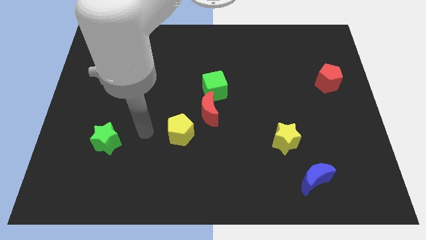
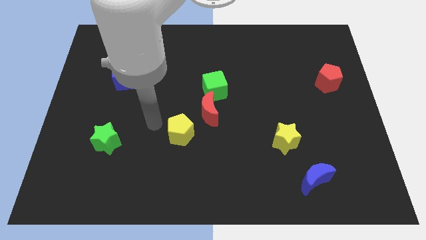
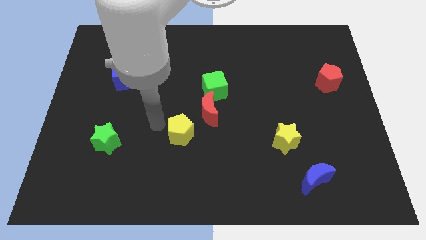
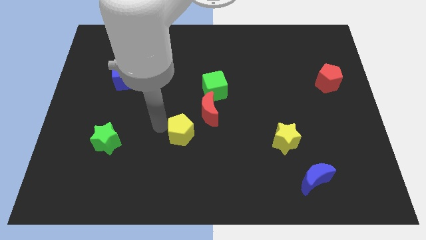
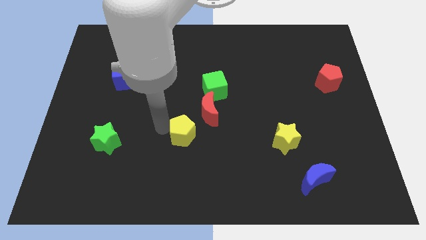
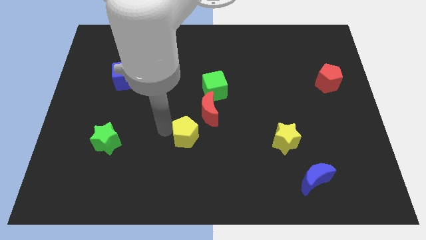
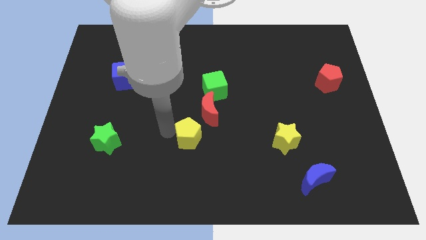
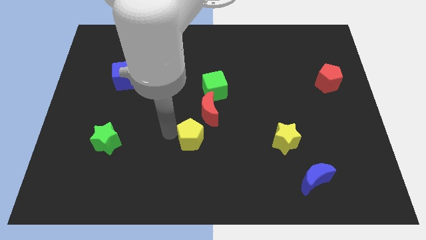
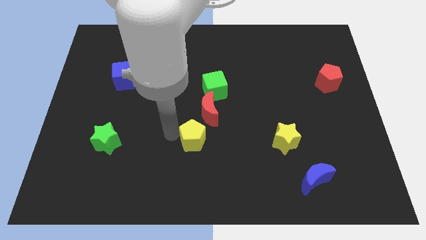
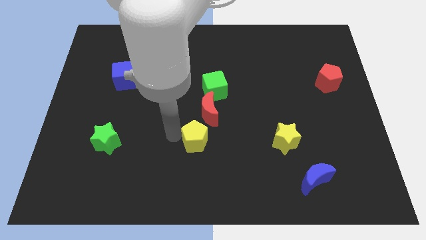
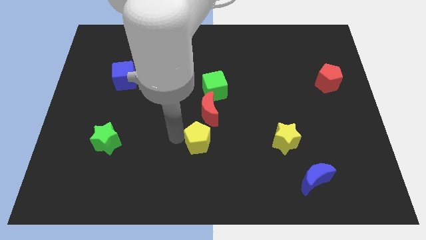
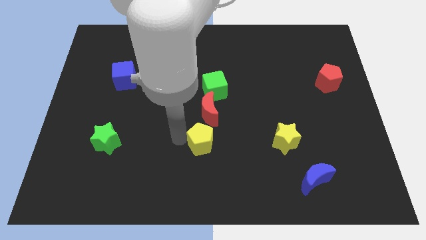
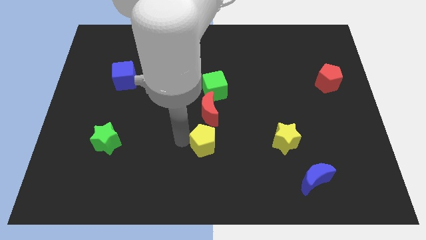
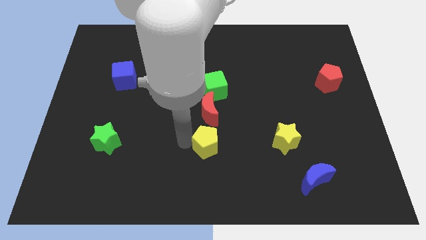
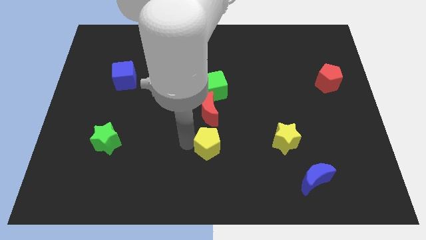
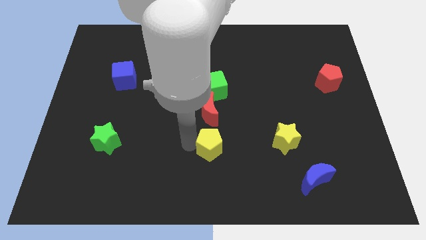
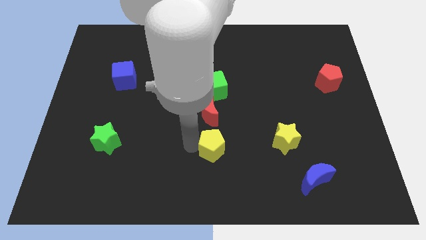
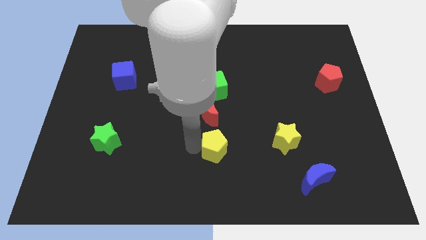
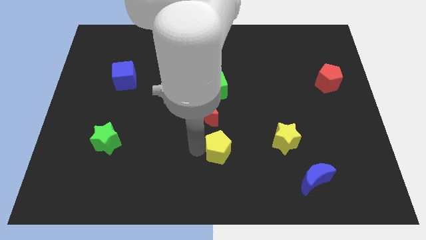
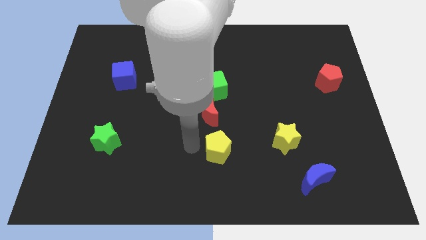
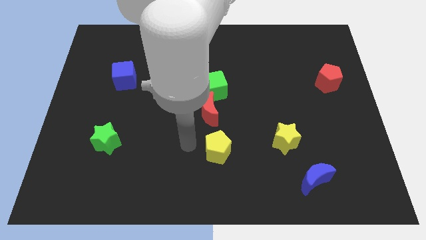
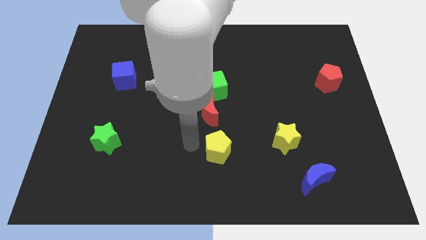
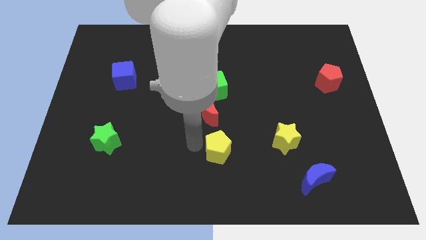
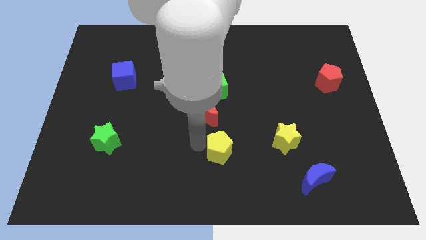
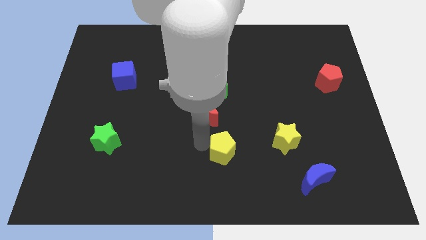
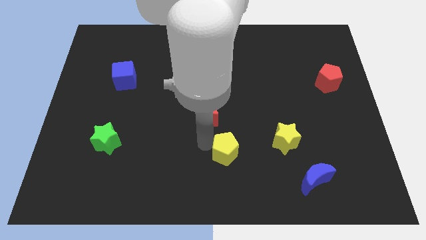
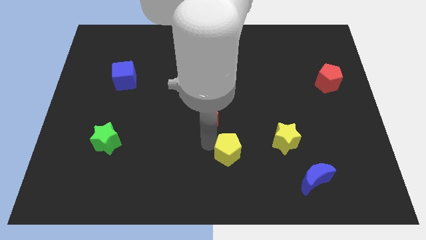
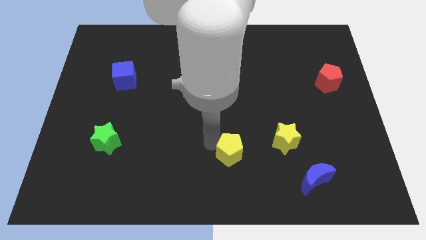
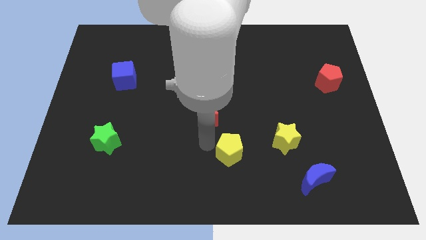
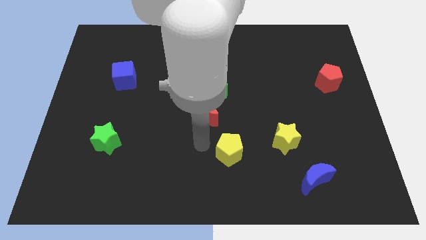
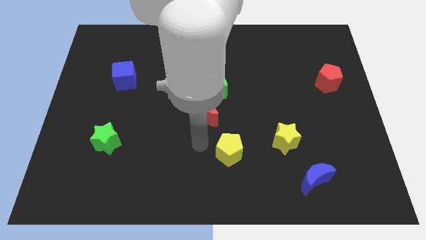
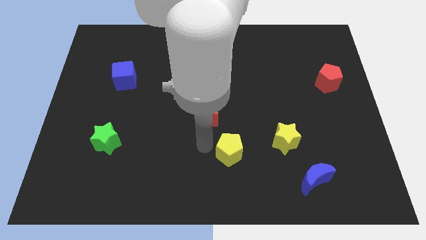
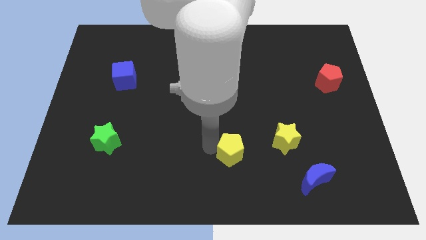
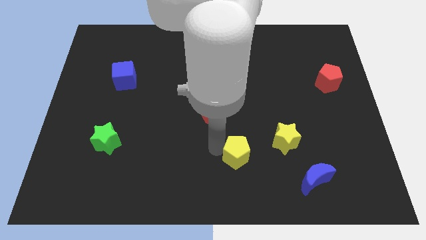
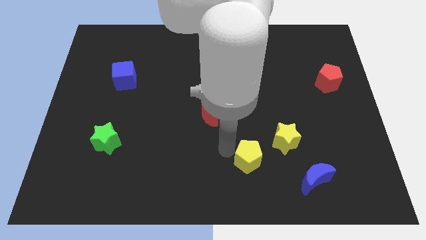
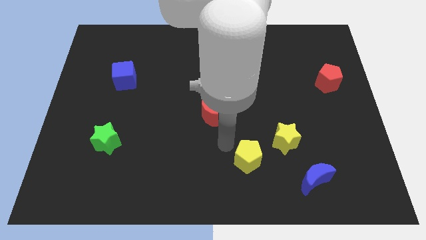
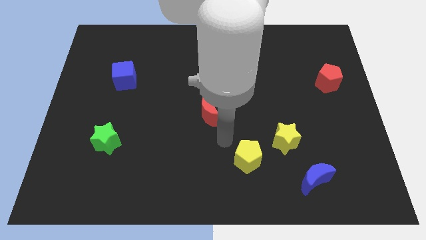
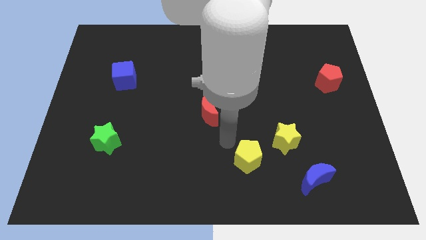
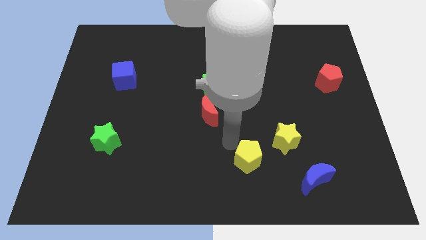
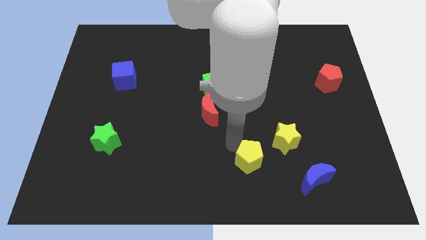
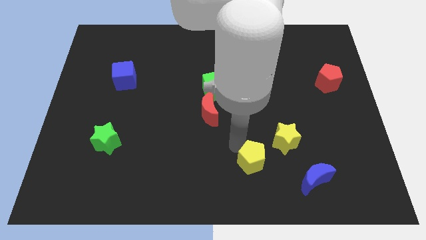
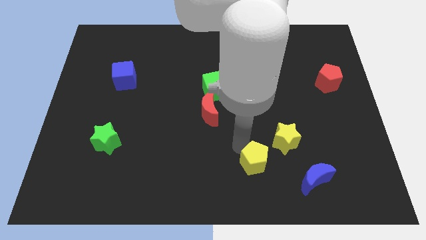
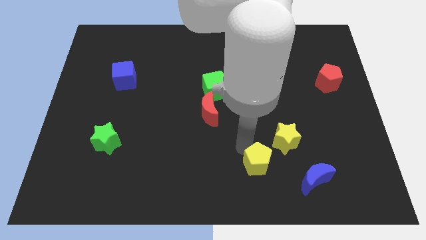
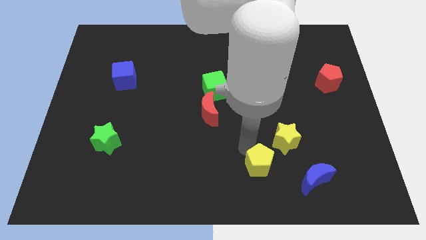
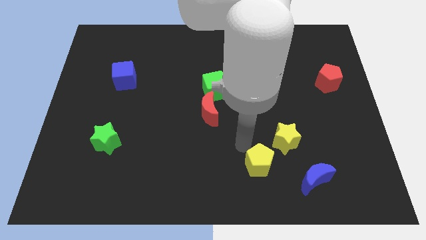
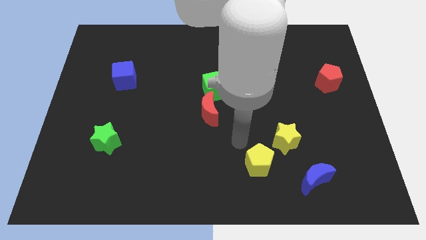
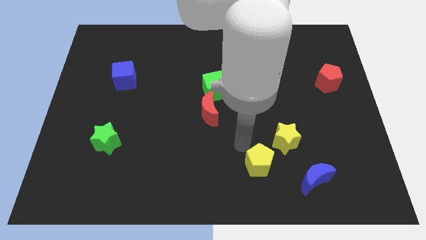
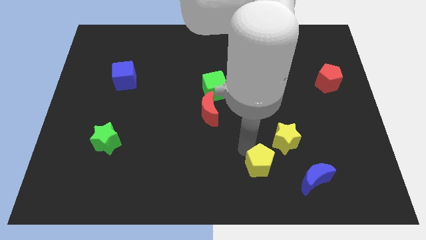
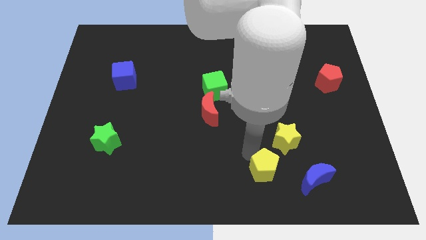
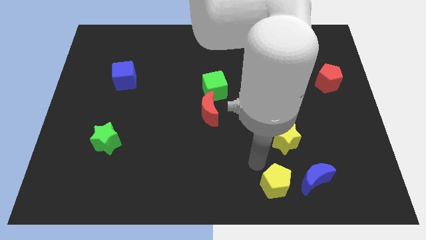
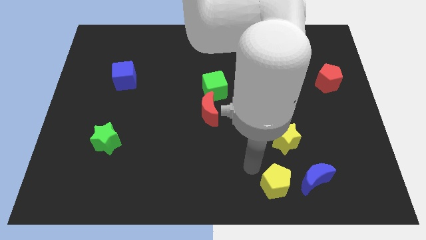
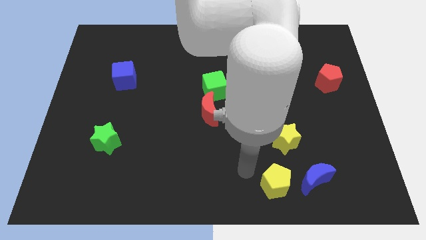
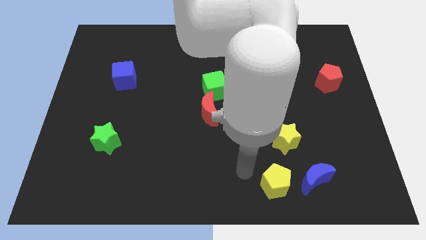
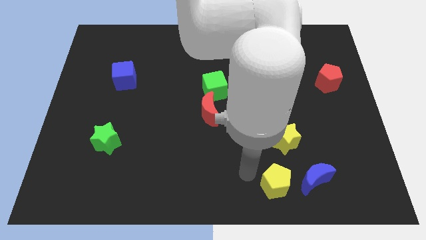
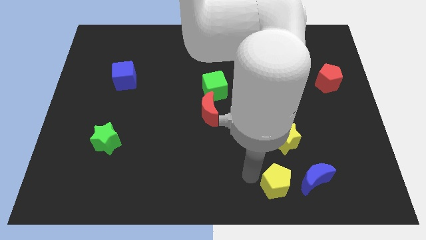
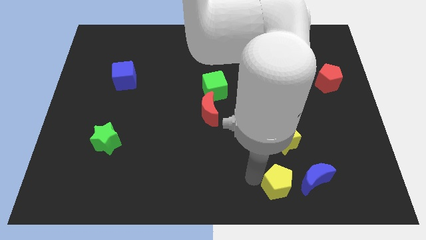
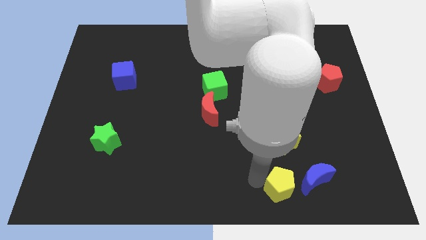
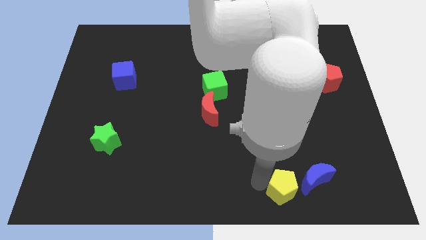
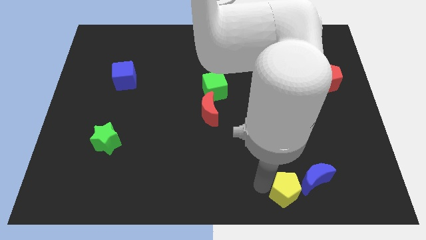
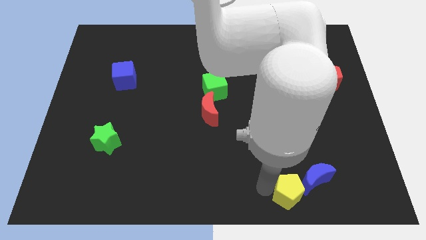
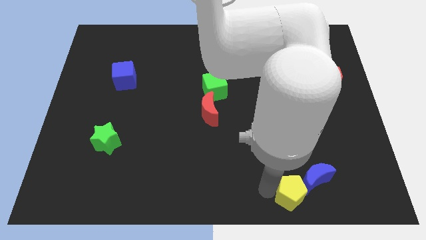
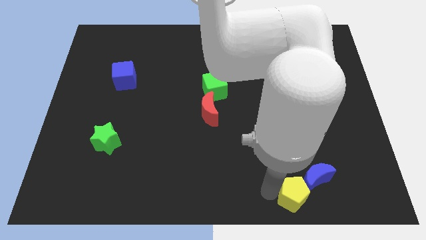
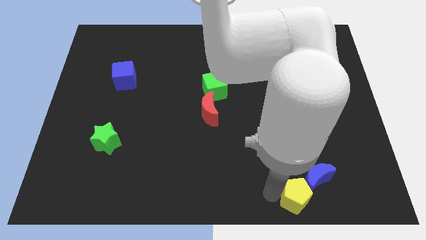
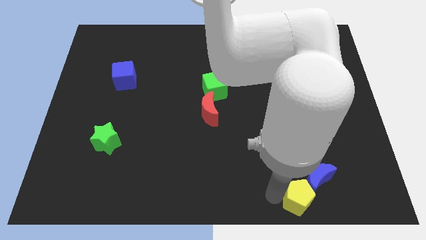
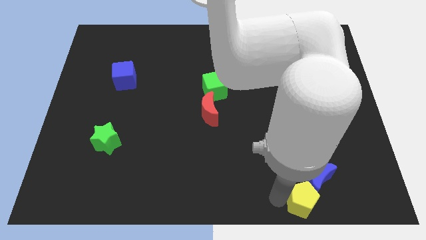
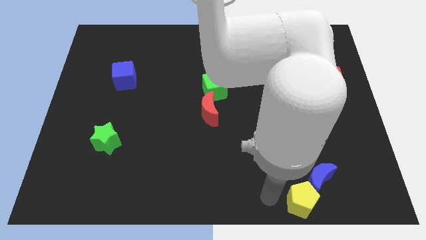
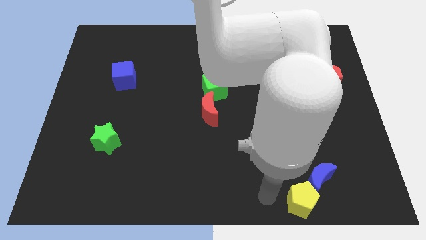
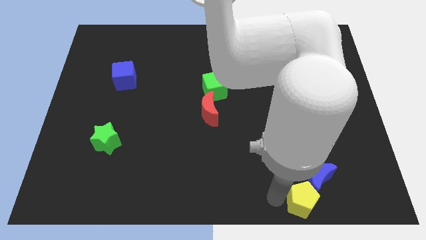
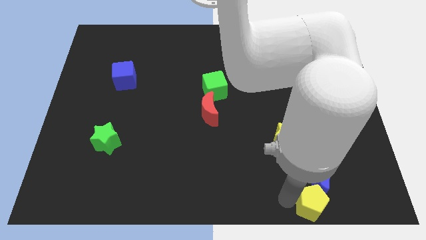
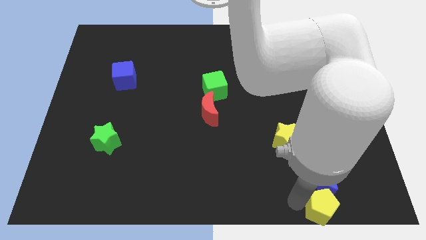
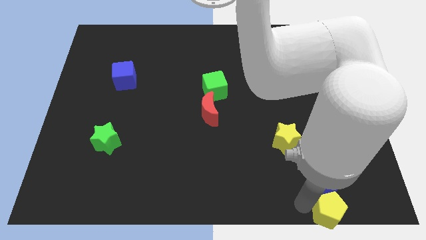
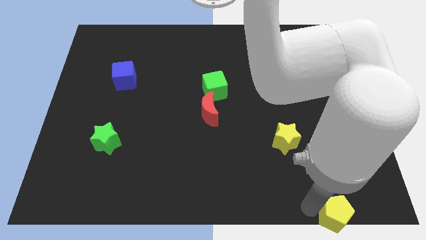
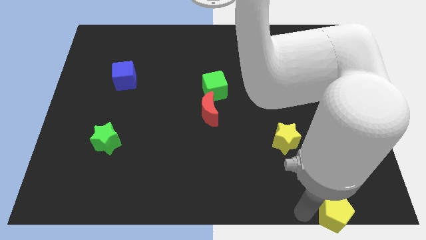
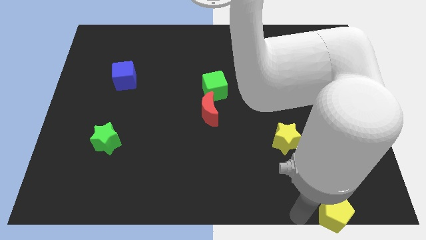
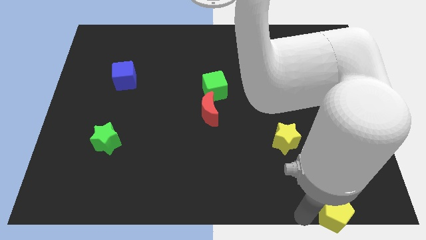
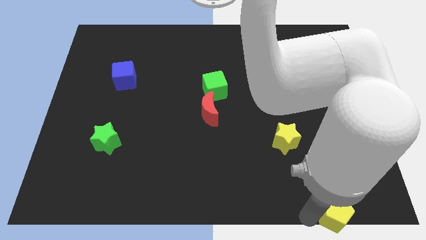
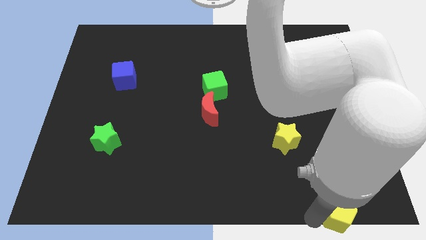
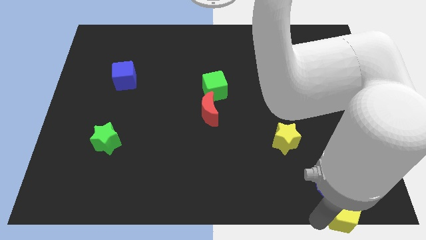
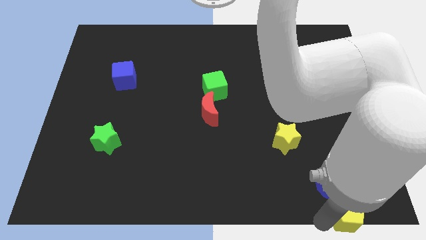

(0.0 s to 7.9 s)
move the yellow pentagon to the bottom right corner
